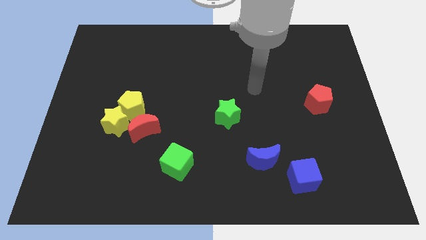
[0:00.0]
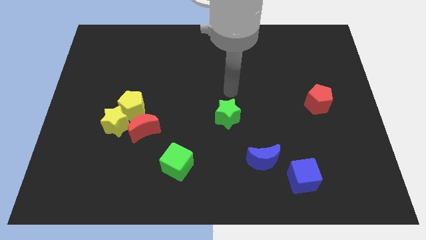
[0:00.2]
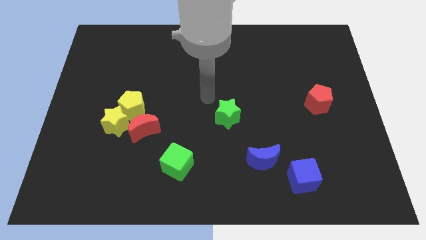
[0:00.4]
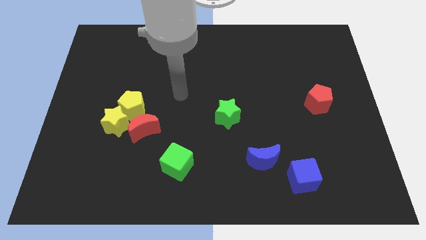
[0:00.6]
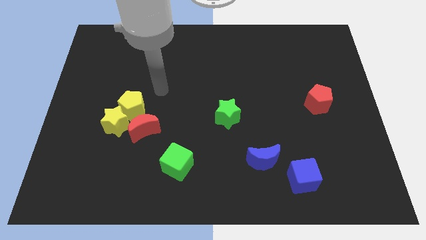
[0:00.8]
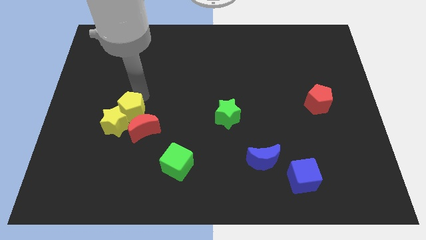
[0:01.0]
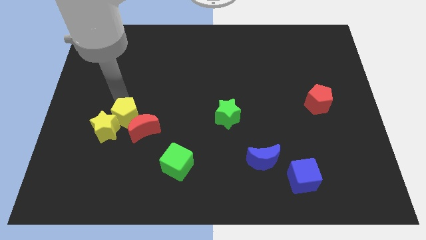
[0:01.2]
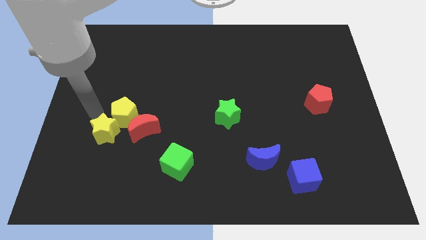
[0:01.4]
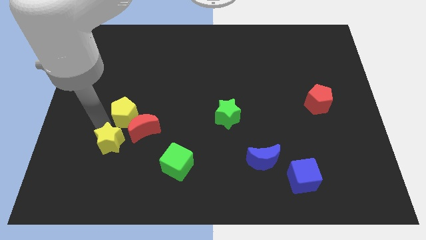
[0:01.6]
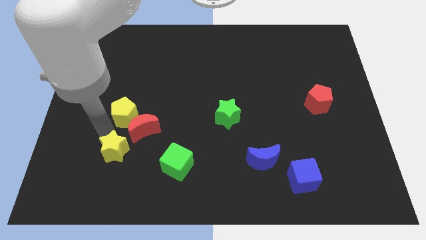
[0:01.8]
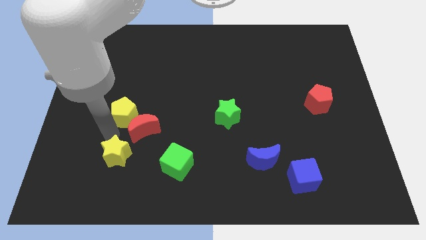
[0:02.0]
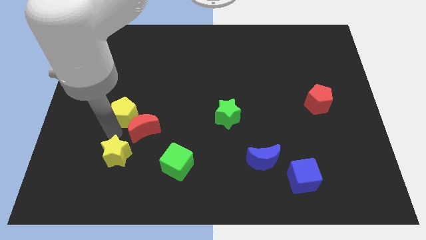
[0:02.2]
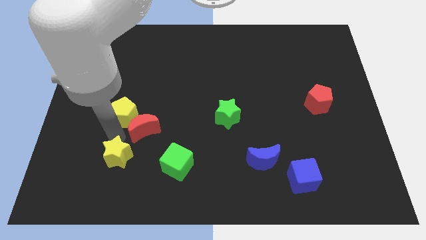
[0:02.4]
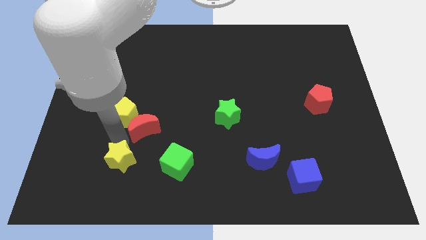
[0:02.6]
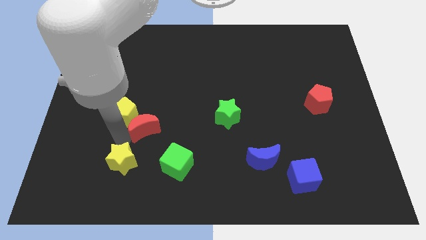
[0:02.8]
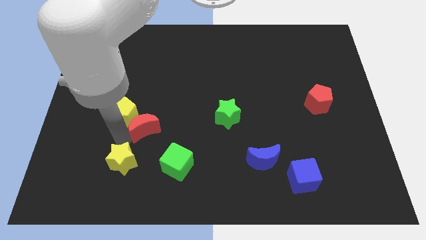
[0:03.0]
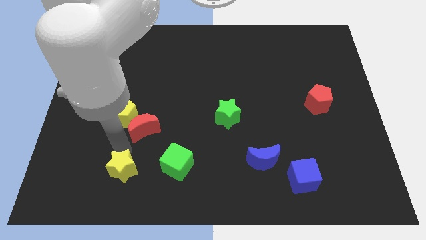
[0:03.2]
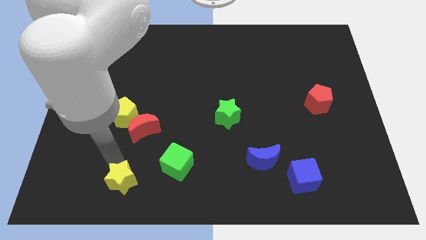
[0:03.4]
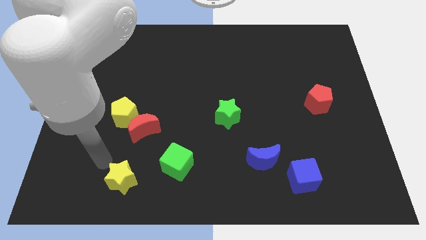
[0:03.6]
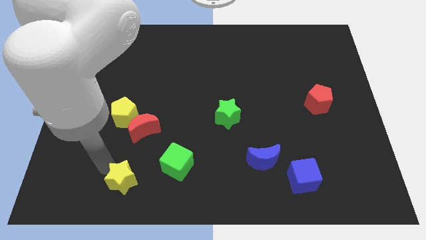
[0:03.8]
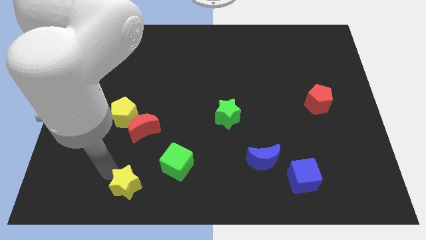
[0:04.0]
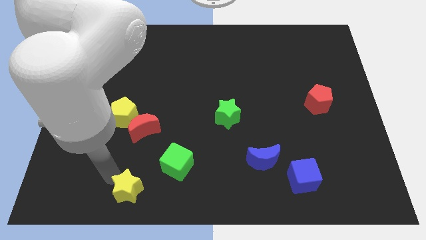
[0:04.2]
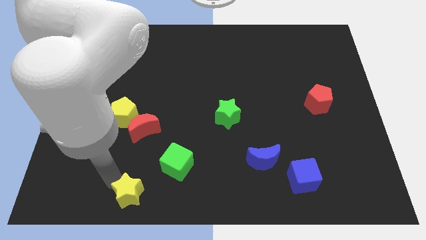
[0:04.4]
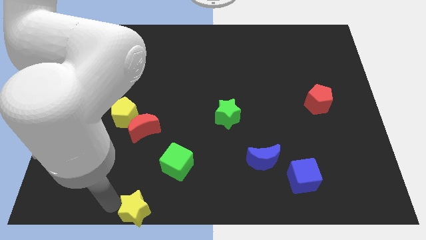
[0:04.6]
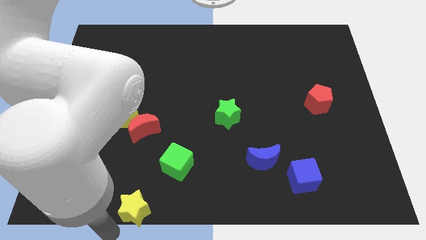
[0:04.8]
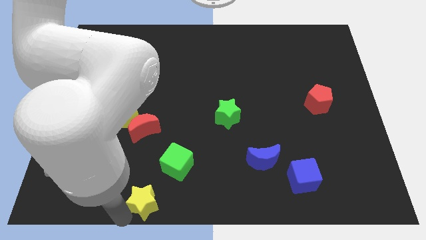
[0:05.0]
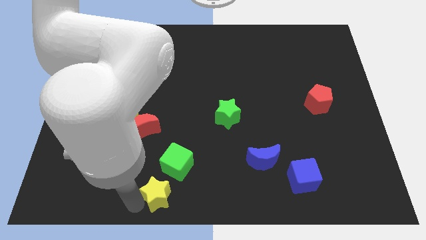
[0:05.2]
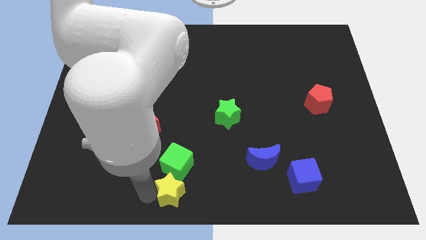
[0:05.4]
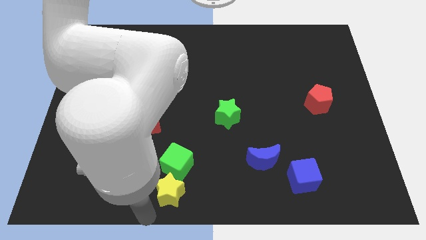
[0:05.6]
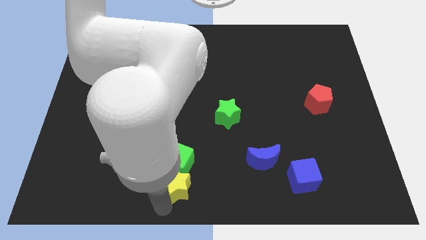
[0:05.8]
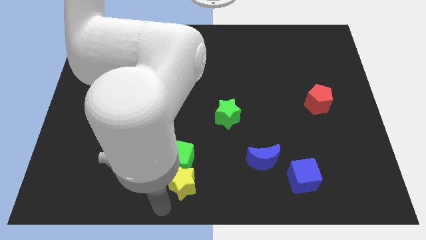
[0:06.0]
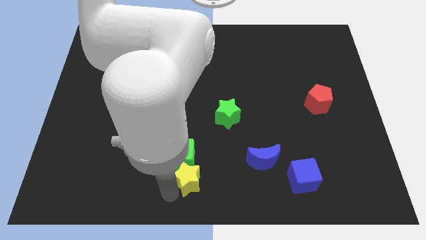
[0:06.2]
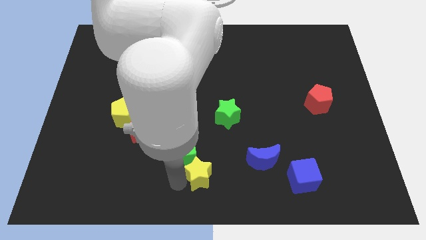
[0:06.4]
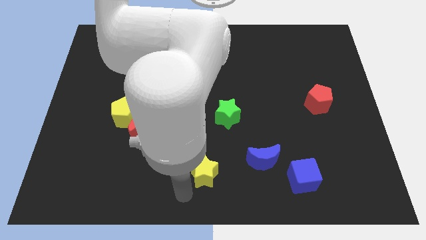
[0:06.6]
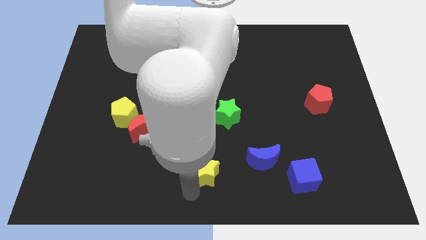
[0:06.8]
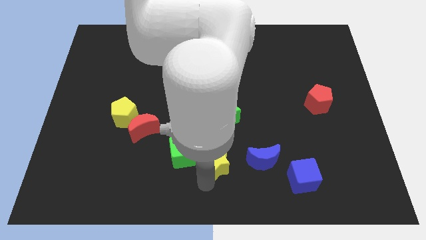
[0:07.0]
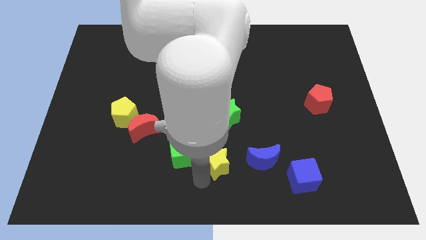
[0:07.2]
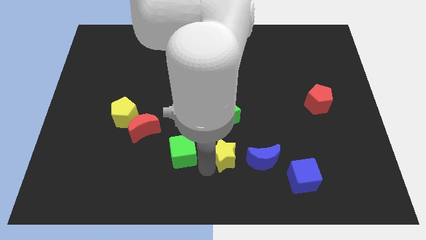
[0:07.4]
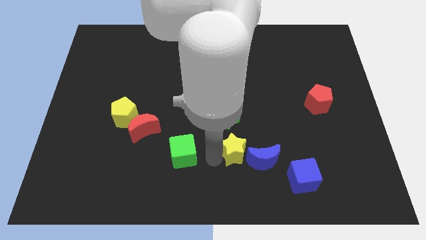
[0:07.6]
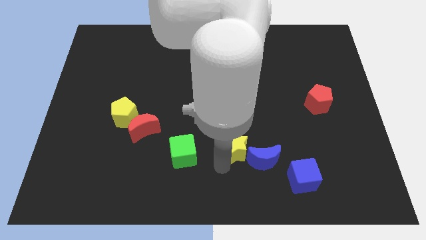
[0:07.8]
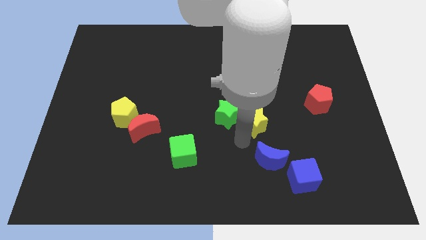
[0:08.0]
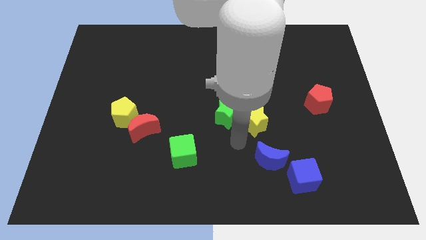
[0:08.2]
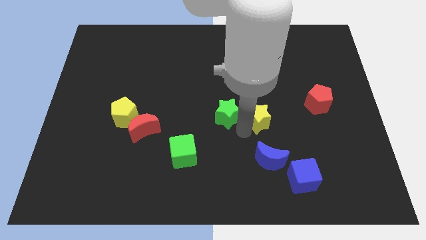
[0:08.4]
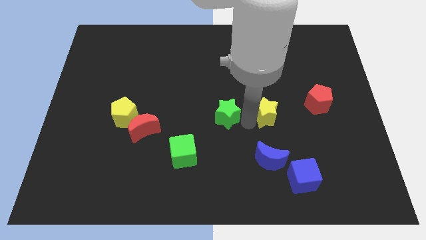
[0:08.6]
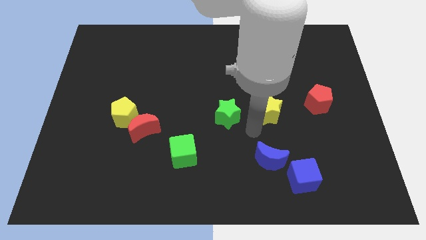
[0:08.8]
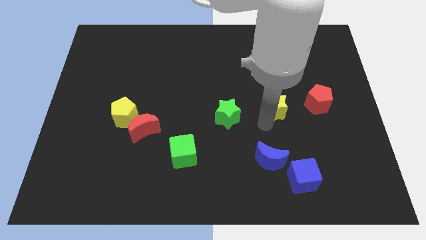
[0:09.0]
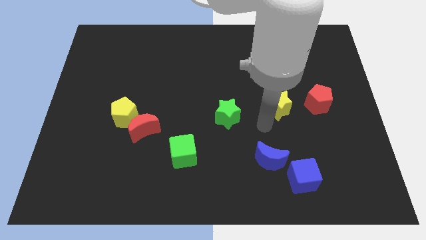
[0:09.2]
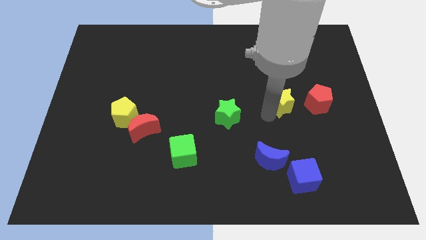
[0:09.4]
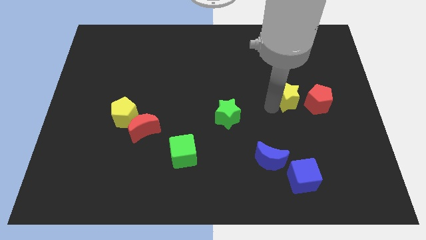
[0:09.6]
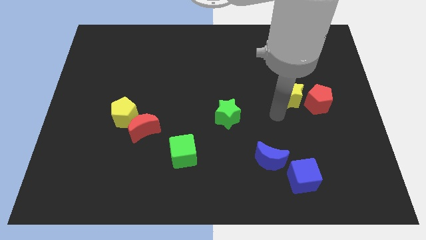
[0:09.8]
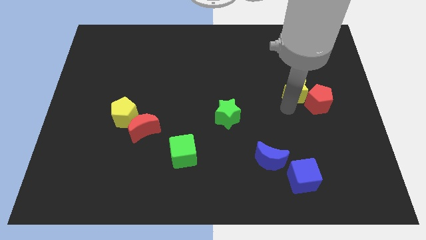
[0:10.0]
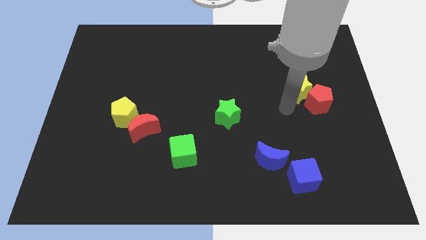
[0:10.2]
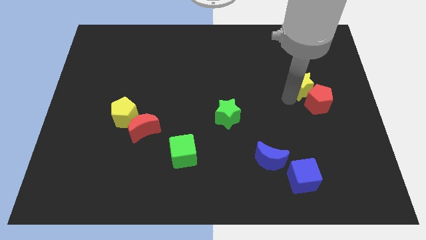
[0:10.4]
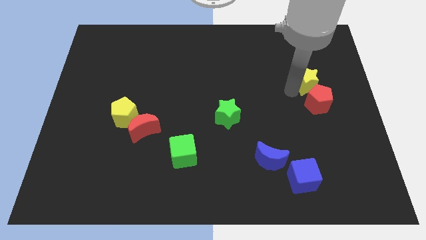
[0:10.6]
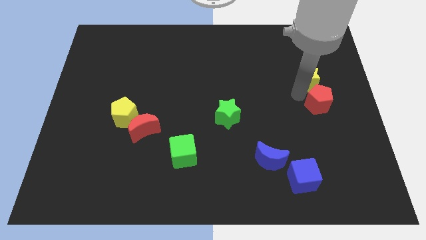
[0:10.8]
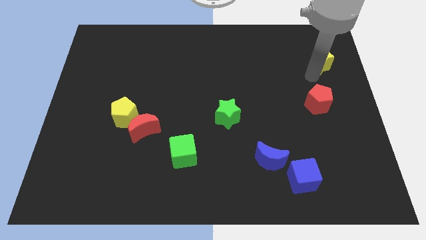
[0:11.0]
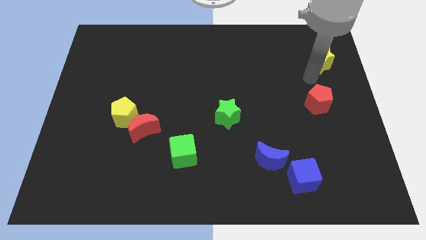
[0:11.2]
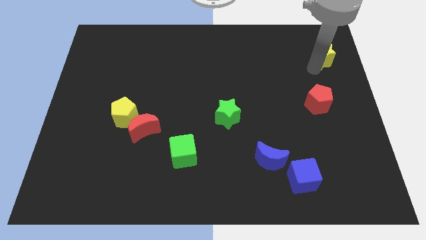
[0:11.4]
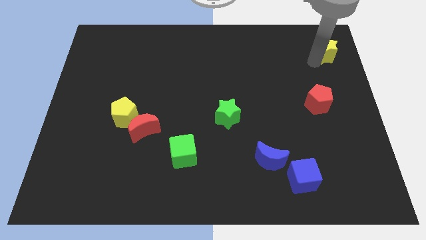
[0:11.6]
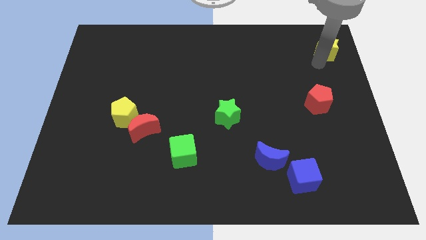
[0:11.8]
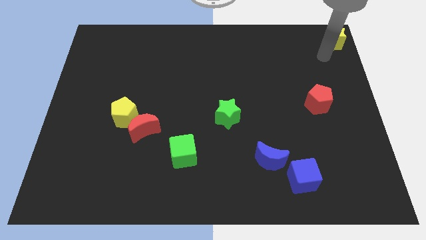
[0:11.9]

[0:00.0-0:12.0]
push the yellow star to the top right of the board

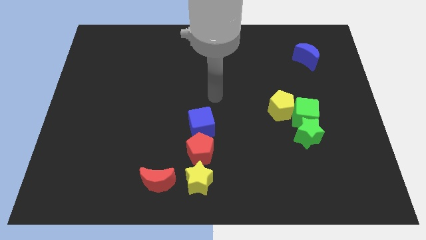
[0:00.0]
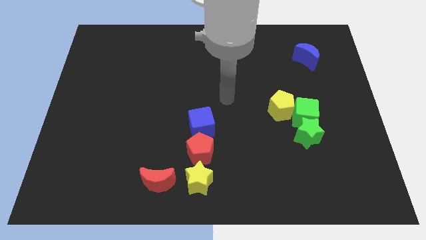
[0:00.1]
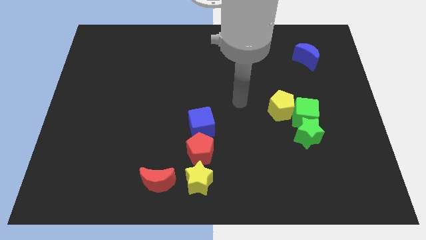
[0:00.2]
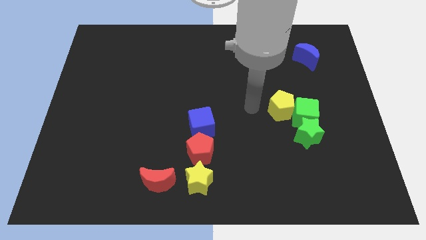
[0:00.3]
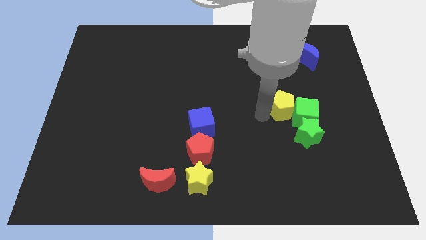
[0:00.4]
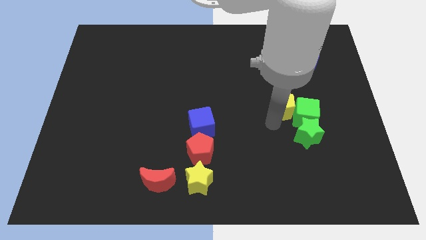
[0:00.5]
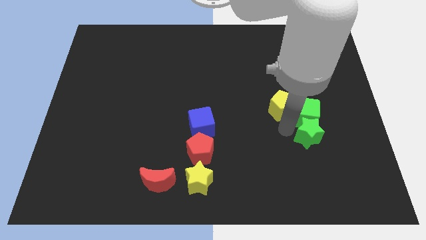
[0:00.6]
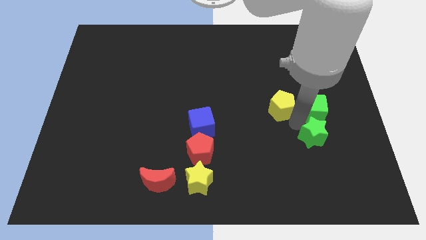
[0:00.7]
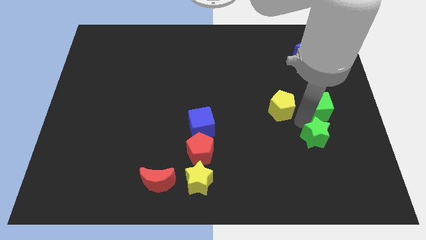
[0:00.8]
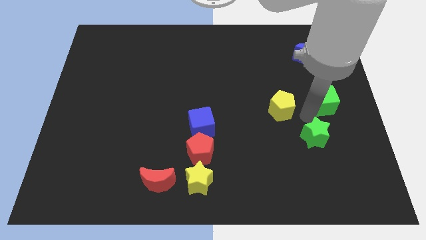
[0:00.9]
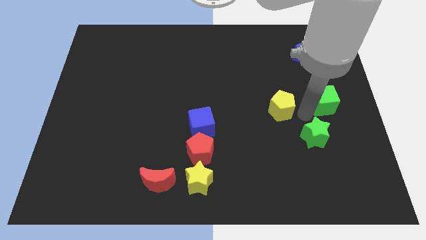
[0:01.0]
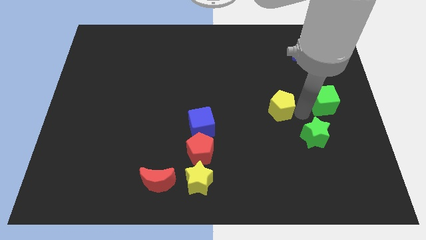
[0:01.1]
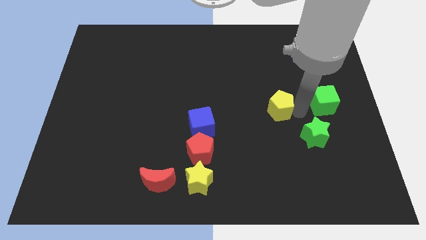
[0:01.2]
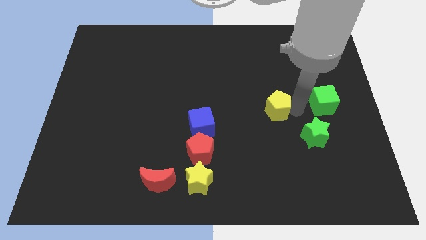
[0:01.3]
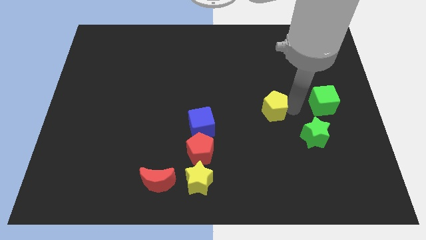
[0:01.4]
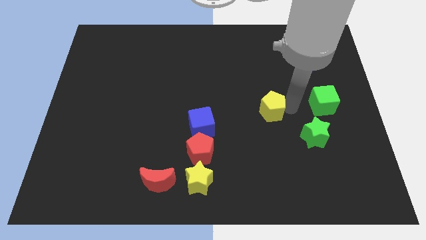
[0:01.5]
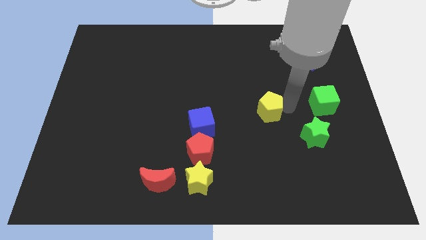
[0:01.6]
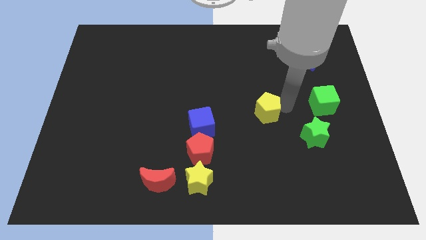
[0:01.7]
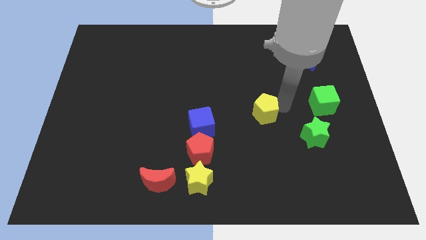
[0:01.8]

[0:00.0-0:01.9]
push the yellow pentagon to the center of the board
